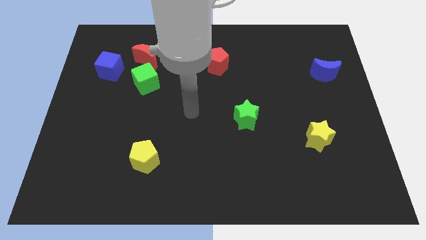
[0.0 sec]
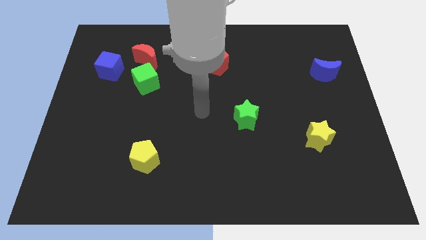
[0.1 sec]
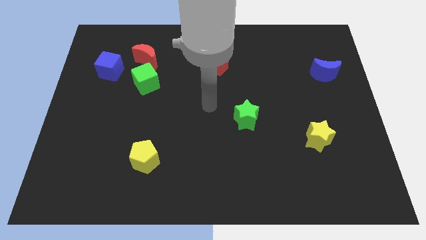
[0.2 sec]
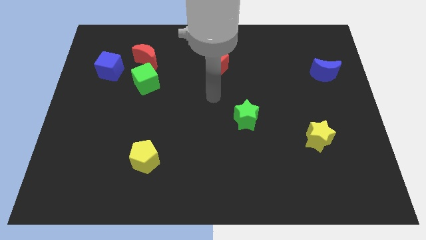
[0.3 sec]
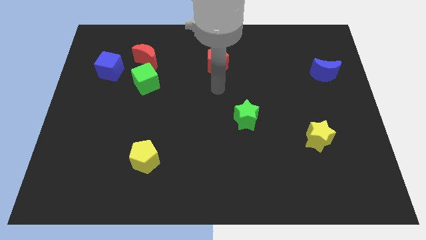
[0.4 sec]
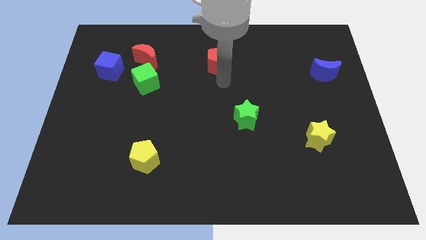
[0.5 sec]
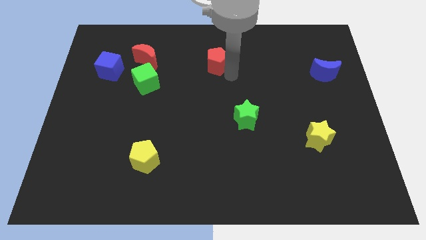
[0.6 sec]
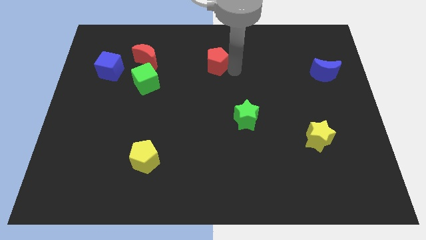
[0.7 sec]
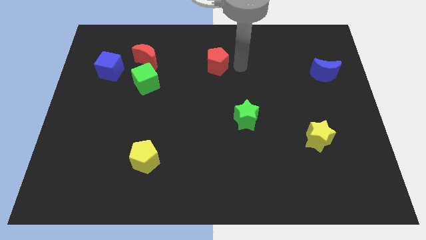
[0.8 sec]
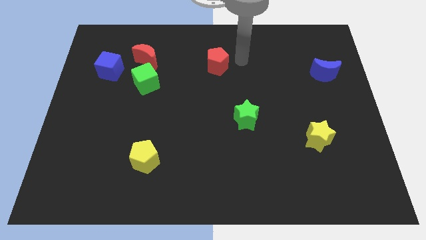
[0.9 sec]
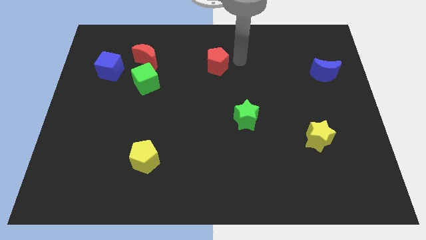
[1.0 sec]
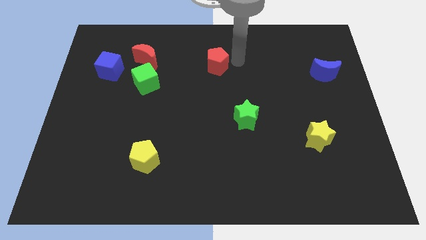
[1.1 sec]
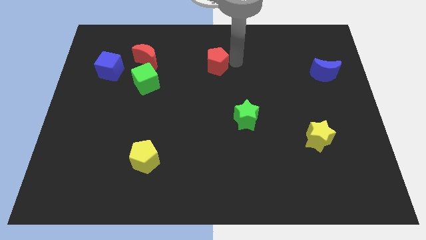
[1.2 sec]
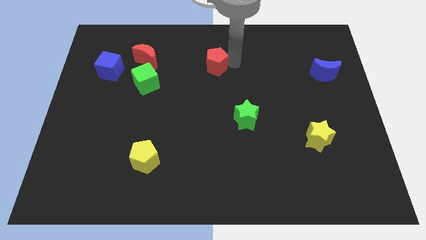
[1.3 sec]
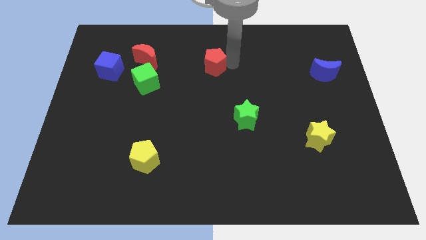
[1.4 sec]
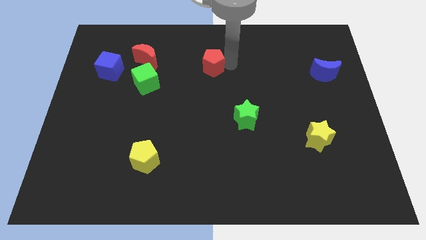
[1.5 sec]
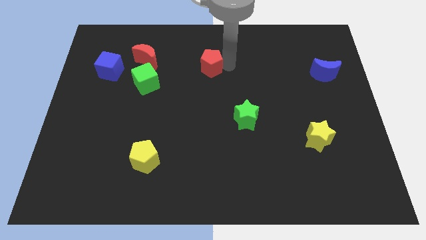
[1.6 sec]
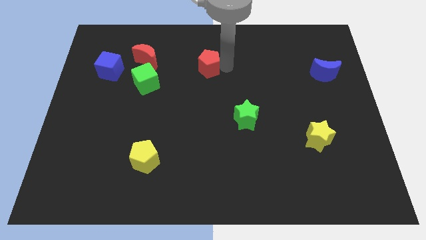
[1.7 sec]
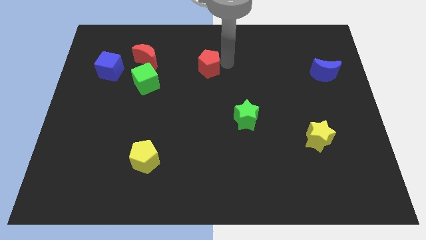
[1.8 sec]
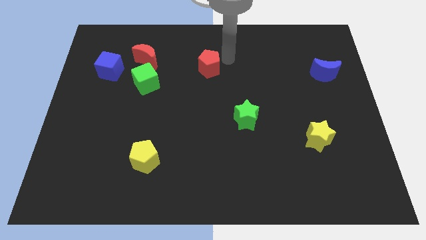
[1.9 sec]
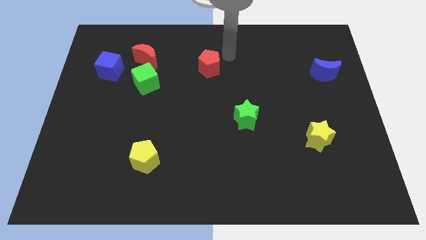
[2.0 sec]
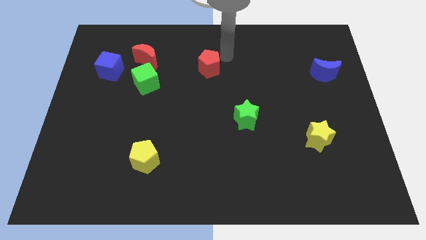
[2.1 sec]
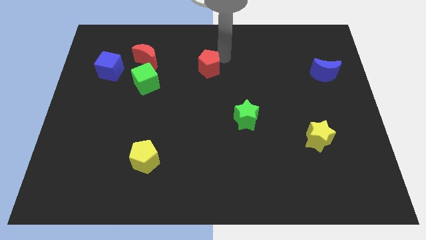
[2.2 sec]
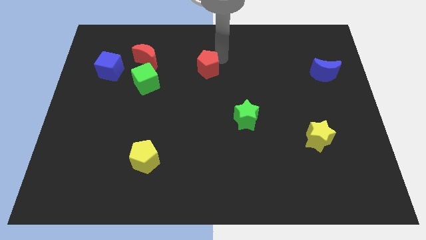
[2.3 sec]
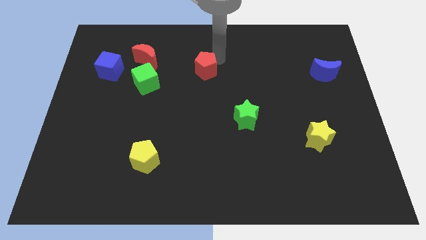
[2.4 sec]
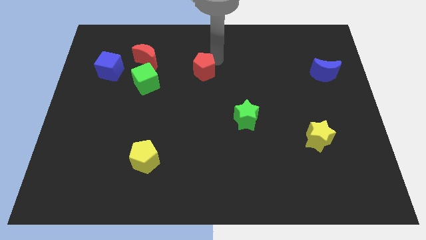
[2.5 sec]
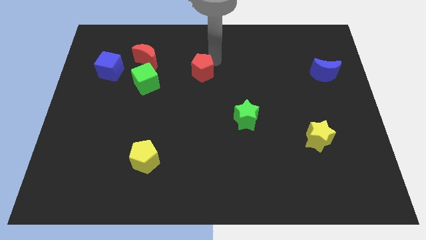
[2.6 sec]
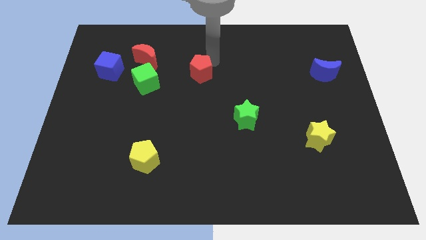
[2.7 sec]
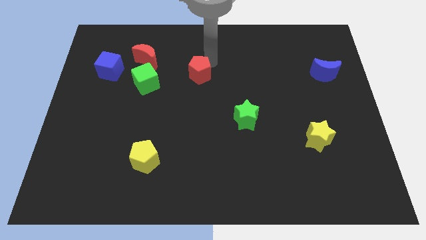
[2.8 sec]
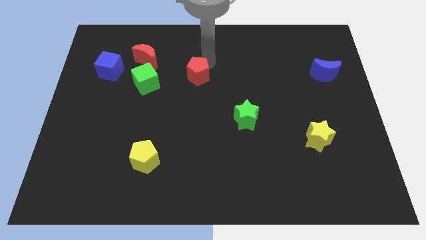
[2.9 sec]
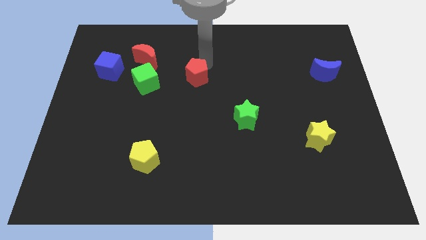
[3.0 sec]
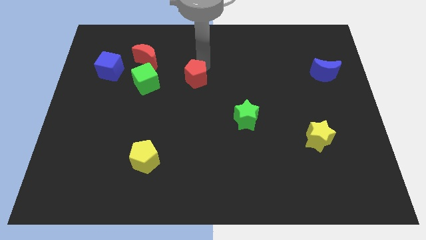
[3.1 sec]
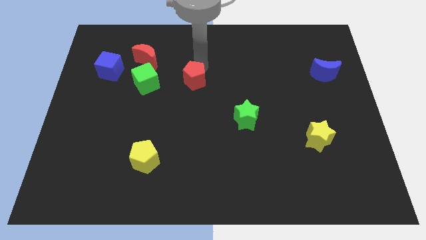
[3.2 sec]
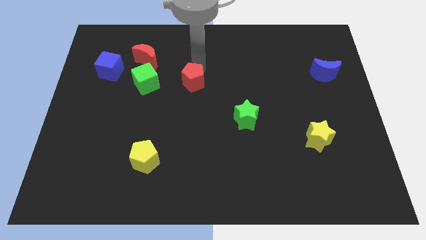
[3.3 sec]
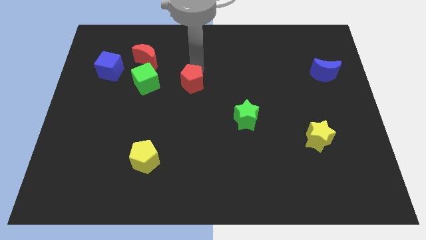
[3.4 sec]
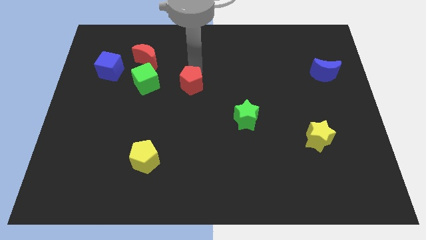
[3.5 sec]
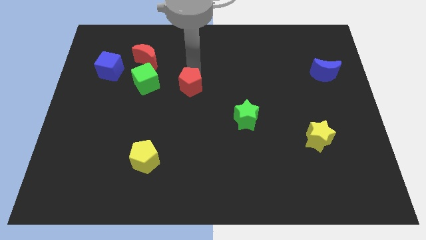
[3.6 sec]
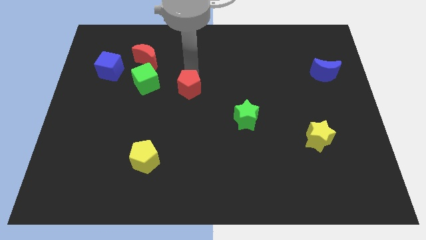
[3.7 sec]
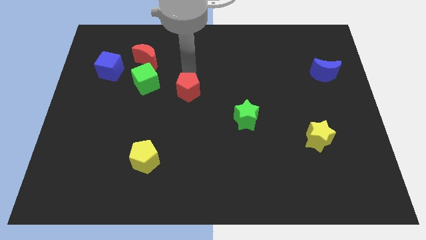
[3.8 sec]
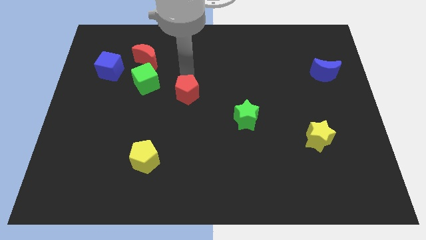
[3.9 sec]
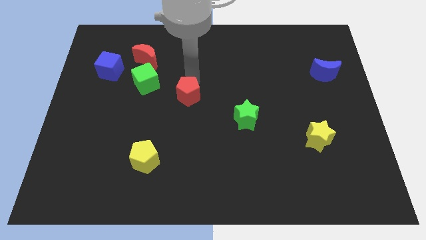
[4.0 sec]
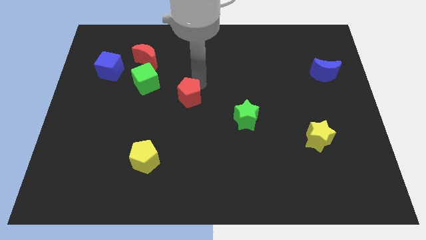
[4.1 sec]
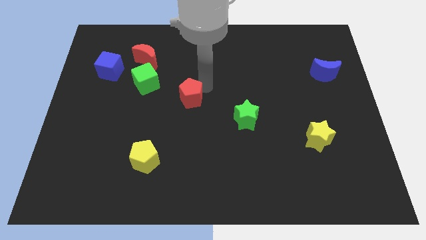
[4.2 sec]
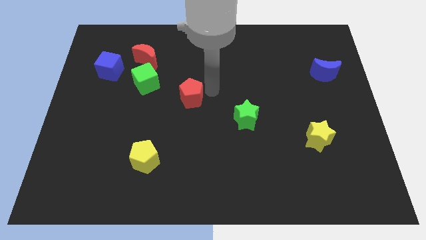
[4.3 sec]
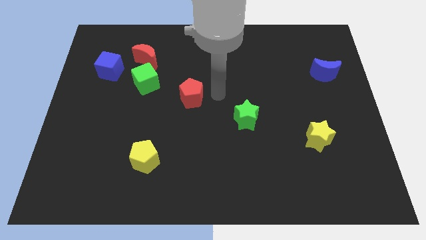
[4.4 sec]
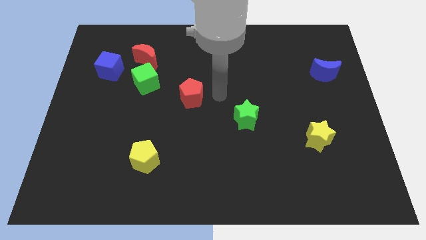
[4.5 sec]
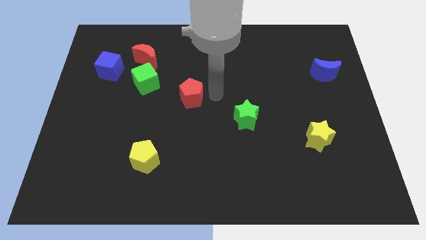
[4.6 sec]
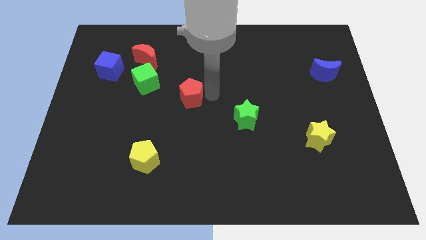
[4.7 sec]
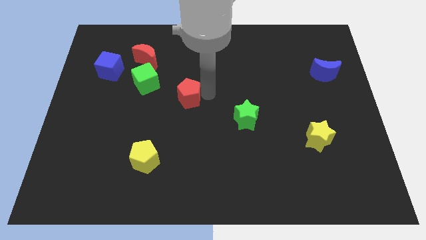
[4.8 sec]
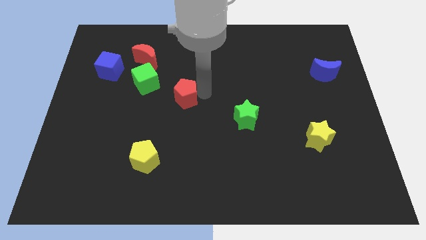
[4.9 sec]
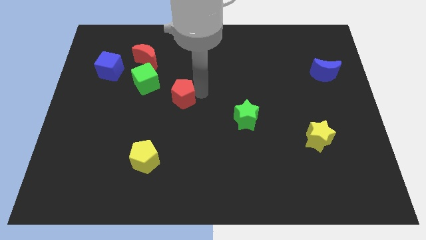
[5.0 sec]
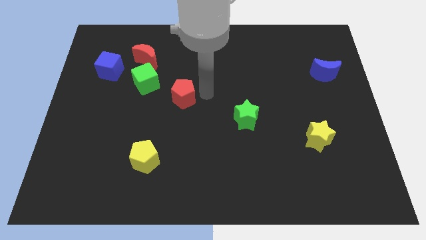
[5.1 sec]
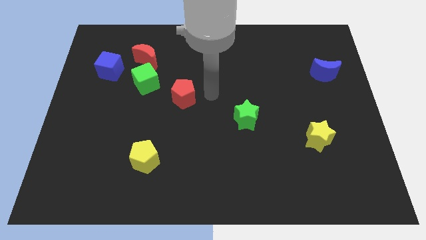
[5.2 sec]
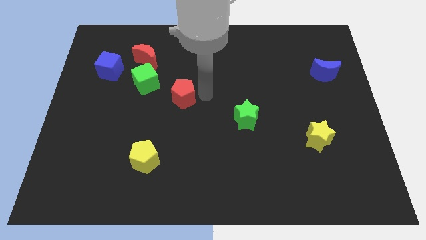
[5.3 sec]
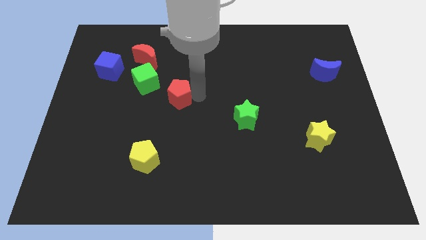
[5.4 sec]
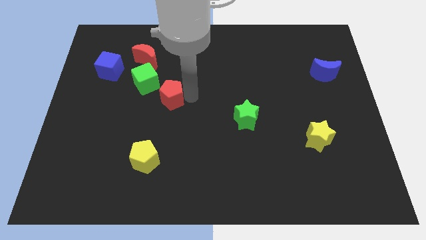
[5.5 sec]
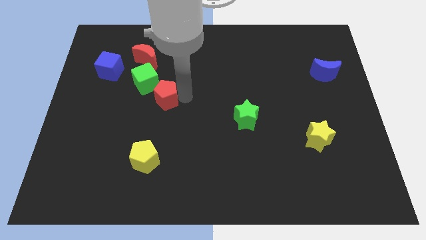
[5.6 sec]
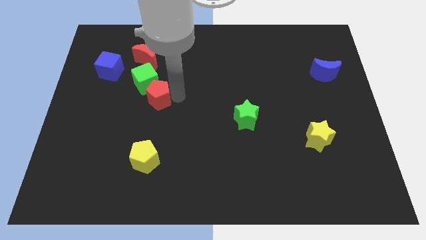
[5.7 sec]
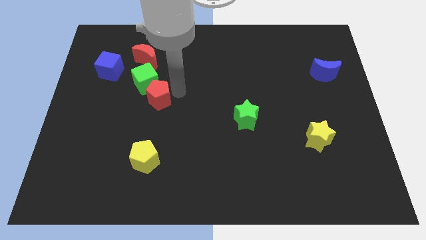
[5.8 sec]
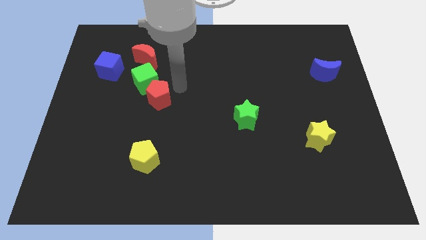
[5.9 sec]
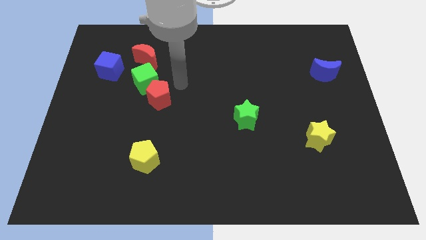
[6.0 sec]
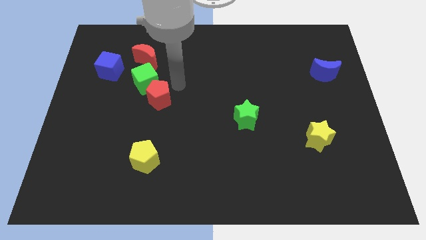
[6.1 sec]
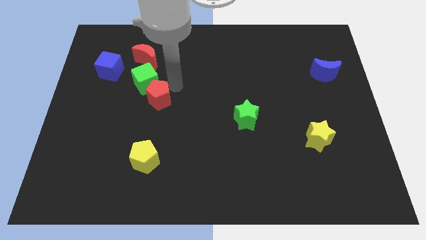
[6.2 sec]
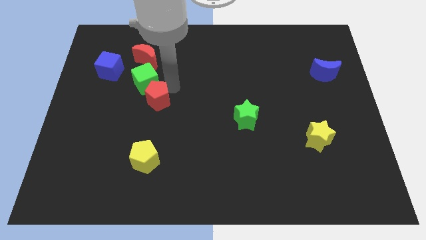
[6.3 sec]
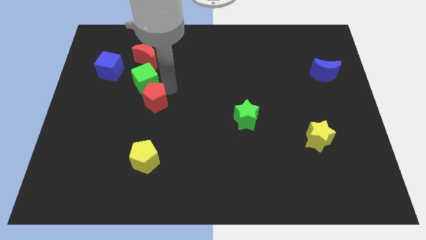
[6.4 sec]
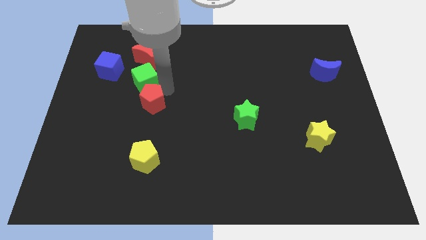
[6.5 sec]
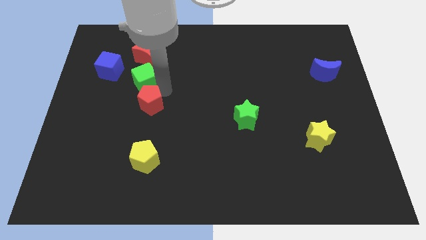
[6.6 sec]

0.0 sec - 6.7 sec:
slide the red pentagon diagonally downwards and left

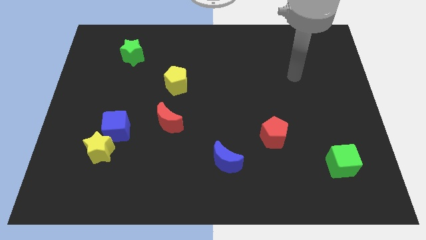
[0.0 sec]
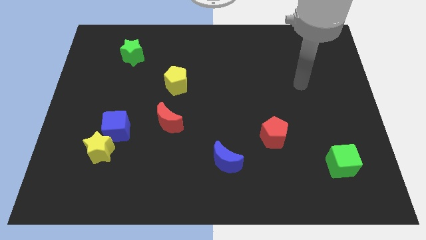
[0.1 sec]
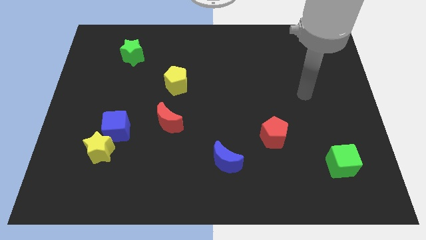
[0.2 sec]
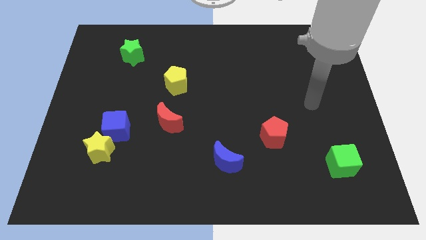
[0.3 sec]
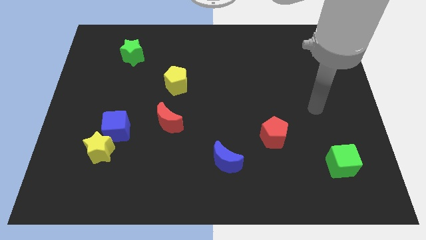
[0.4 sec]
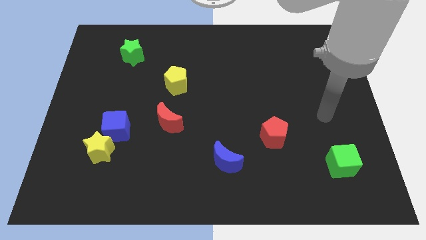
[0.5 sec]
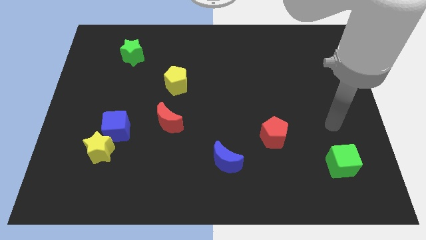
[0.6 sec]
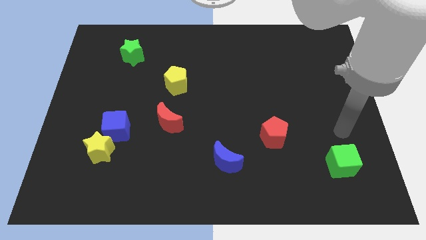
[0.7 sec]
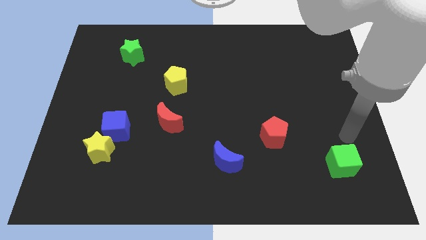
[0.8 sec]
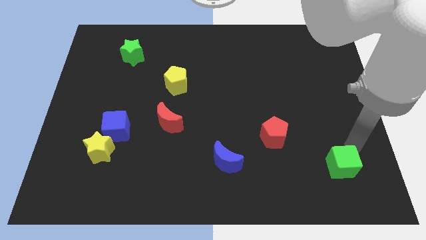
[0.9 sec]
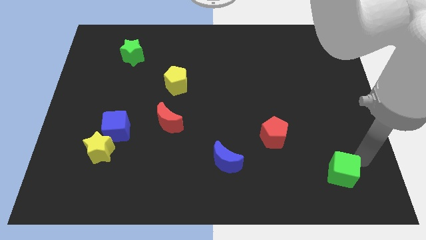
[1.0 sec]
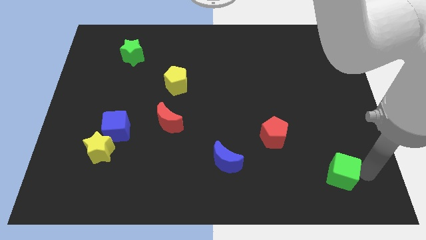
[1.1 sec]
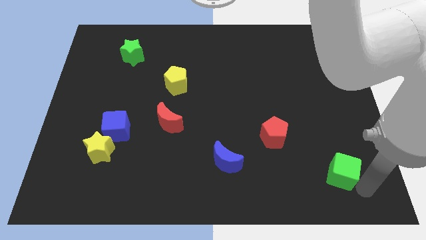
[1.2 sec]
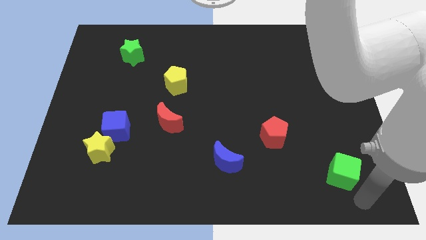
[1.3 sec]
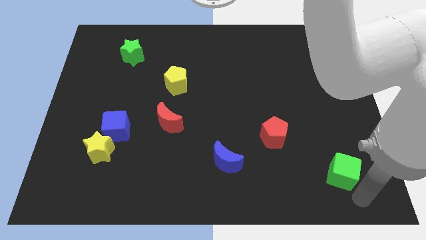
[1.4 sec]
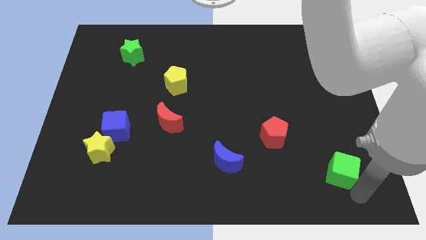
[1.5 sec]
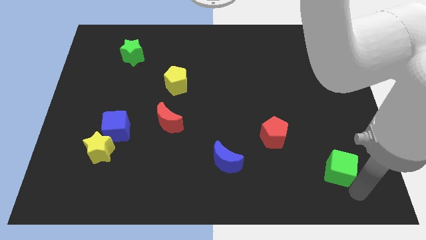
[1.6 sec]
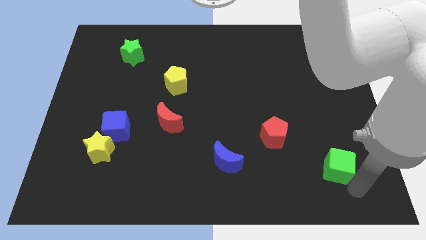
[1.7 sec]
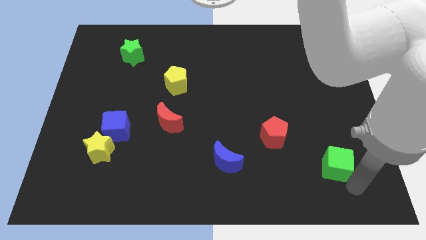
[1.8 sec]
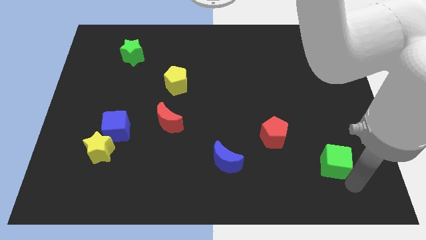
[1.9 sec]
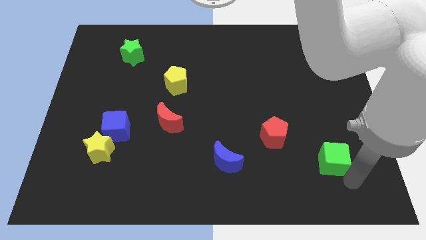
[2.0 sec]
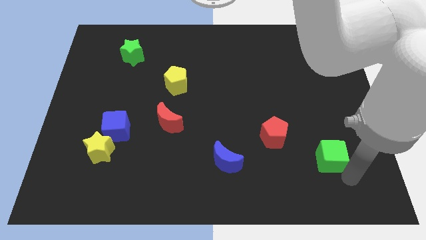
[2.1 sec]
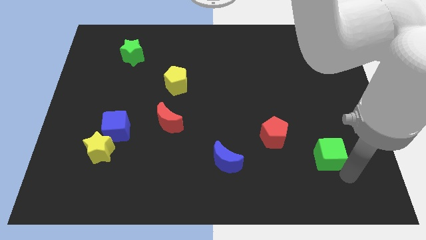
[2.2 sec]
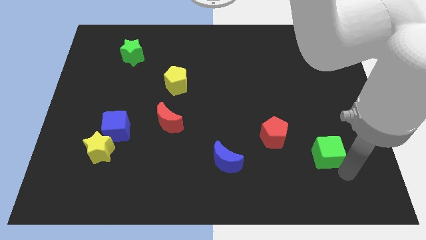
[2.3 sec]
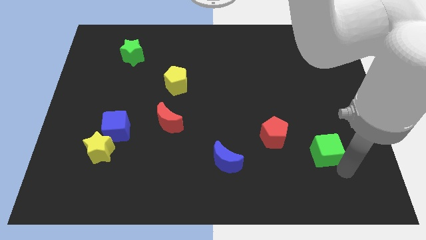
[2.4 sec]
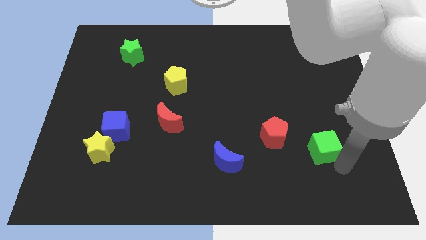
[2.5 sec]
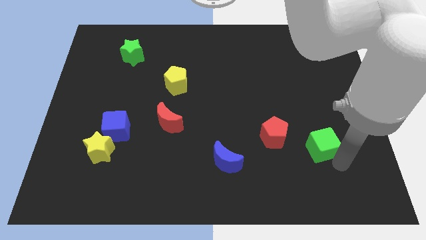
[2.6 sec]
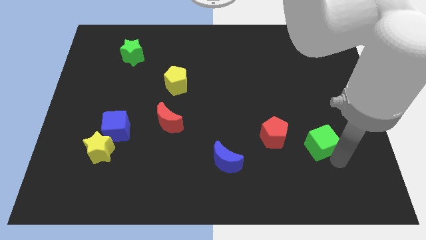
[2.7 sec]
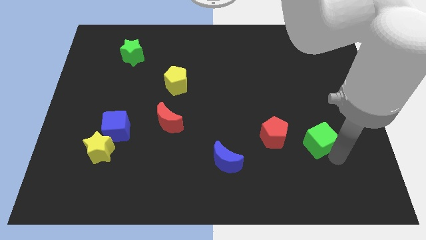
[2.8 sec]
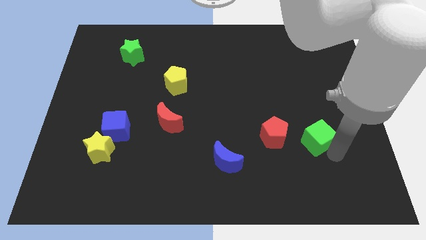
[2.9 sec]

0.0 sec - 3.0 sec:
slightly move the green cube diagonally upwards and to the left
